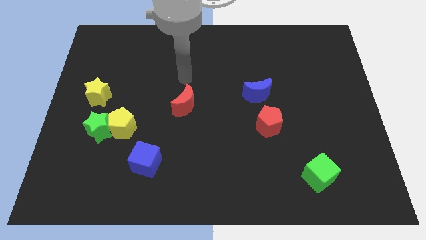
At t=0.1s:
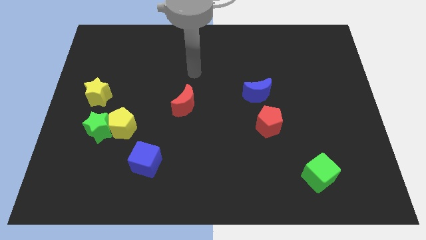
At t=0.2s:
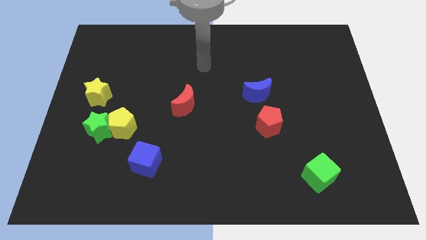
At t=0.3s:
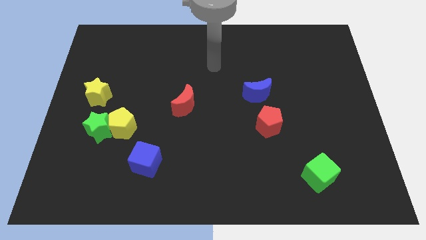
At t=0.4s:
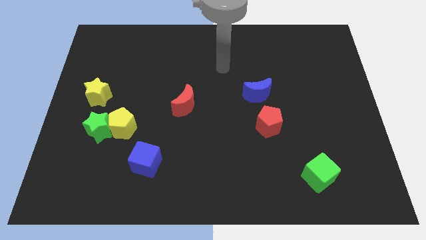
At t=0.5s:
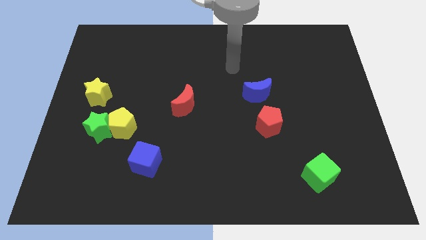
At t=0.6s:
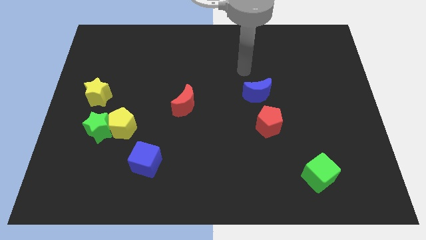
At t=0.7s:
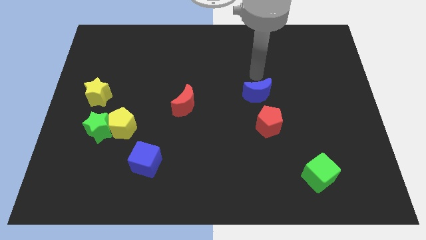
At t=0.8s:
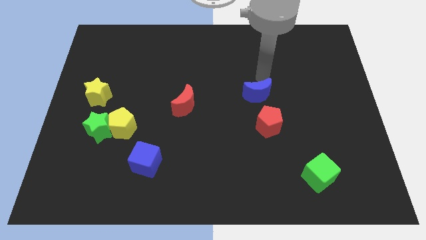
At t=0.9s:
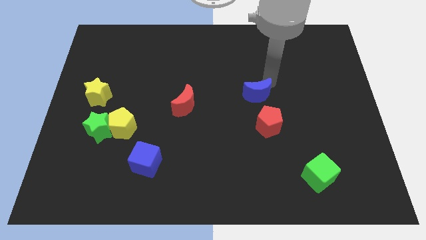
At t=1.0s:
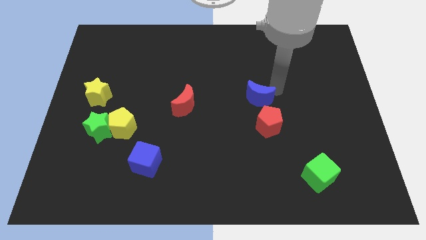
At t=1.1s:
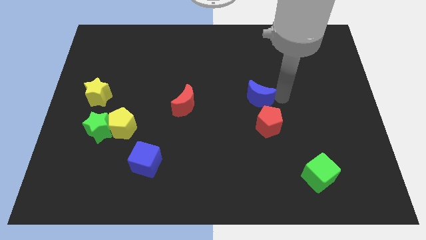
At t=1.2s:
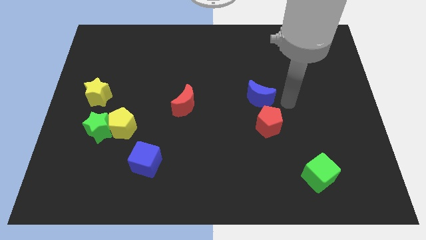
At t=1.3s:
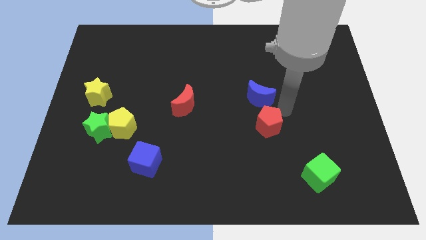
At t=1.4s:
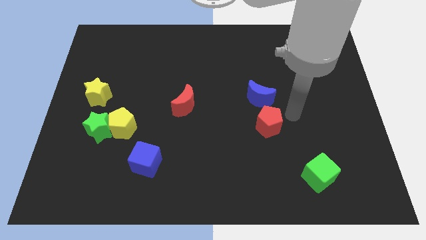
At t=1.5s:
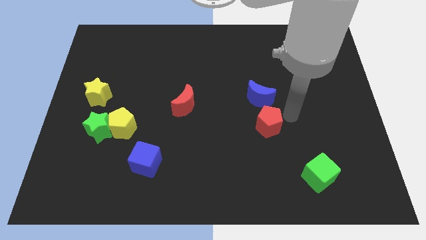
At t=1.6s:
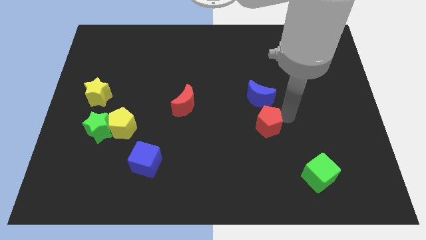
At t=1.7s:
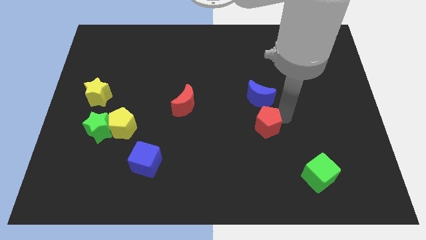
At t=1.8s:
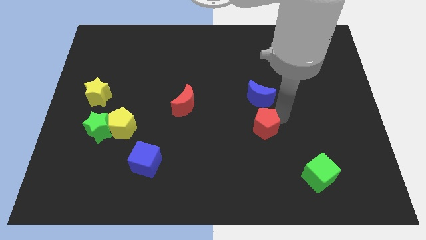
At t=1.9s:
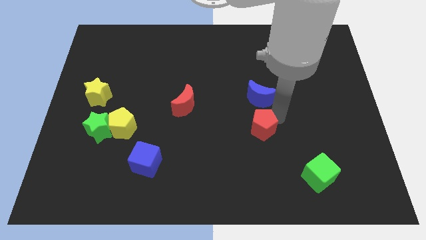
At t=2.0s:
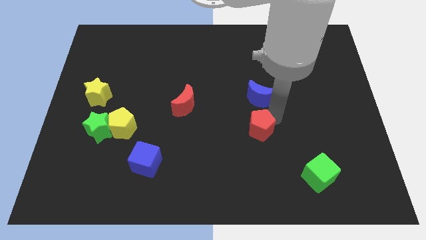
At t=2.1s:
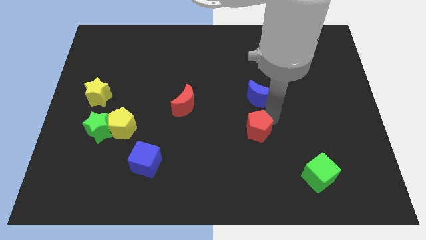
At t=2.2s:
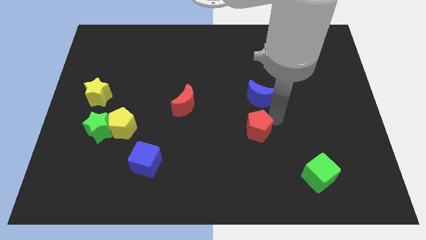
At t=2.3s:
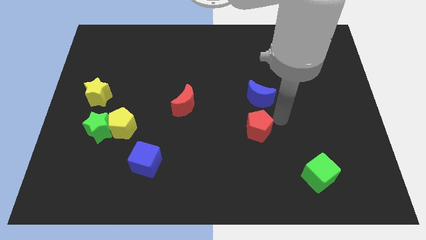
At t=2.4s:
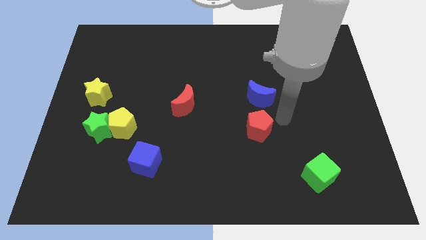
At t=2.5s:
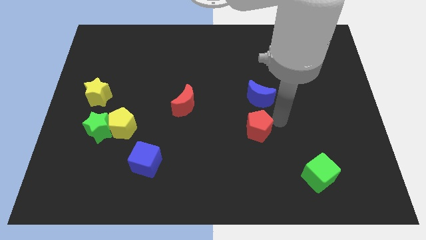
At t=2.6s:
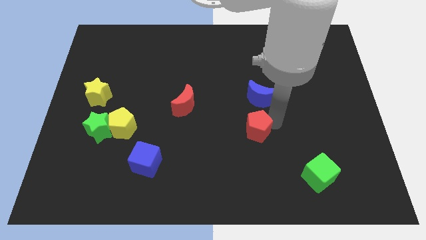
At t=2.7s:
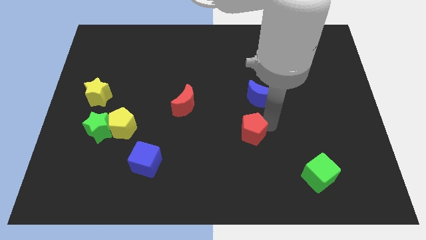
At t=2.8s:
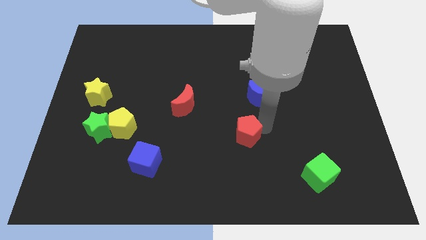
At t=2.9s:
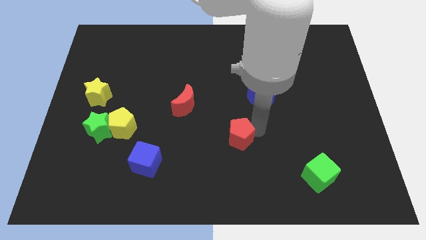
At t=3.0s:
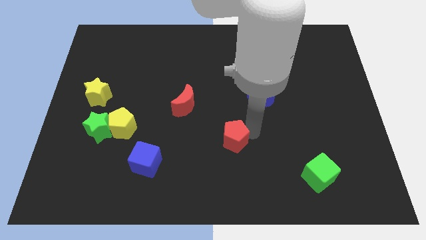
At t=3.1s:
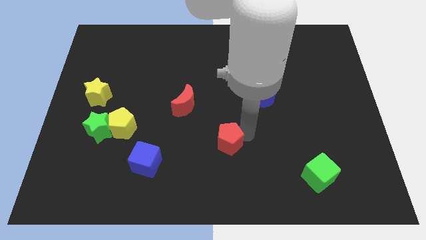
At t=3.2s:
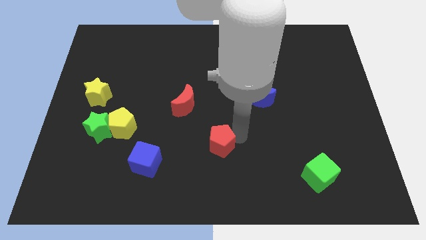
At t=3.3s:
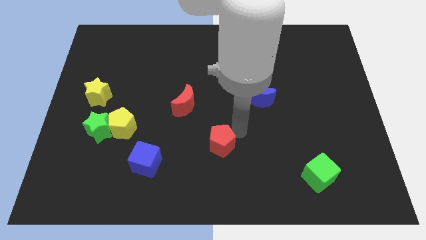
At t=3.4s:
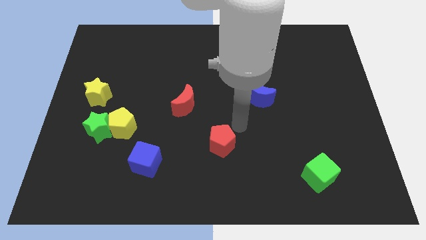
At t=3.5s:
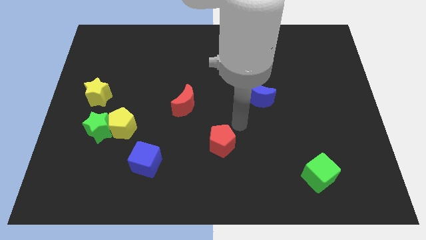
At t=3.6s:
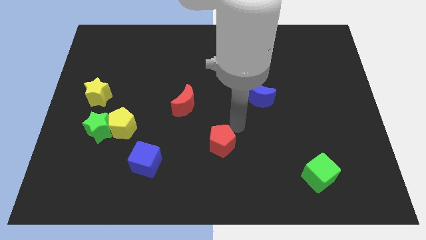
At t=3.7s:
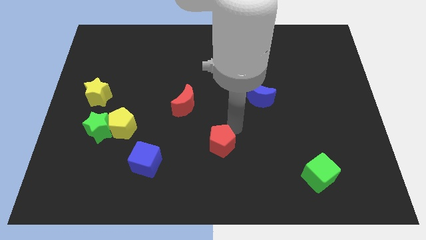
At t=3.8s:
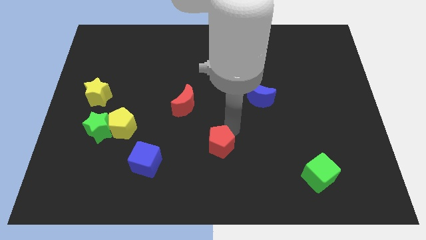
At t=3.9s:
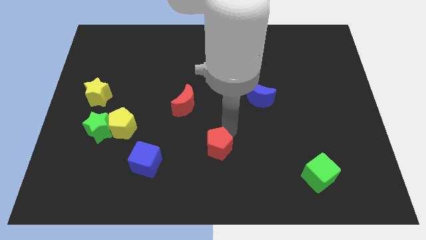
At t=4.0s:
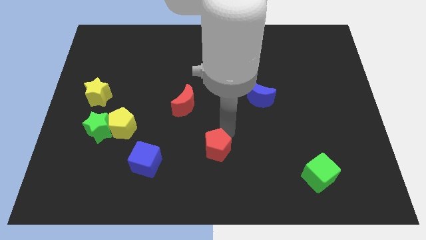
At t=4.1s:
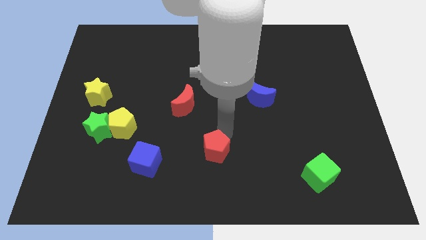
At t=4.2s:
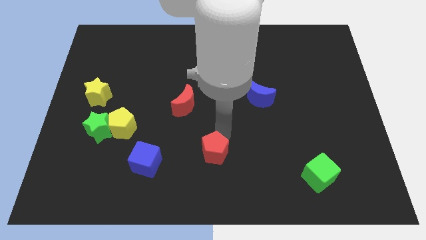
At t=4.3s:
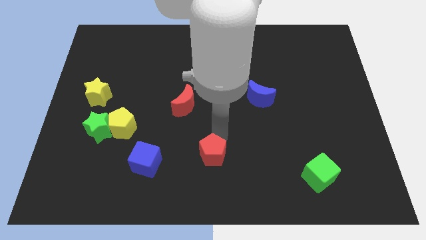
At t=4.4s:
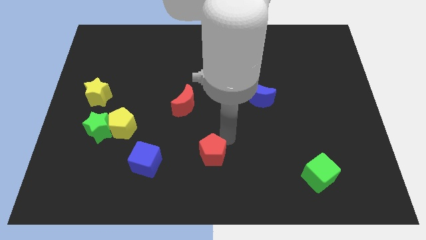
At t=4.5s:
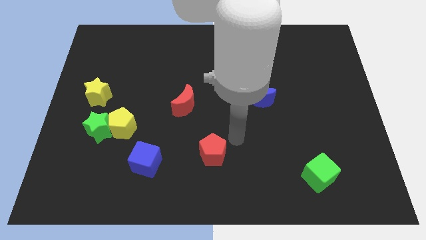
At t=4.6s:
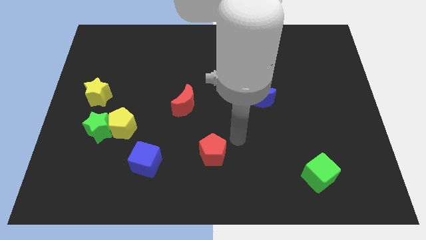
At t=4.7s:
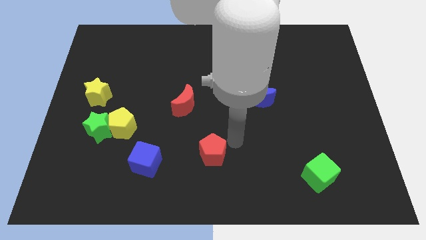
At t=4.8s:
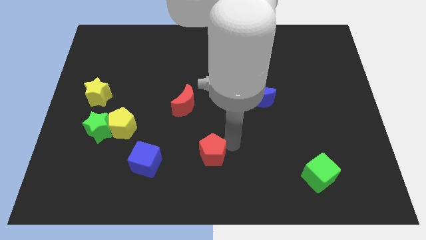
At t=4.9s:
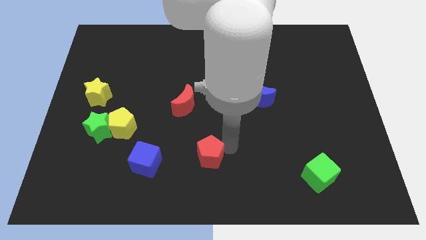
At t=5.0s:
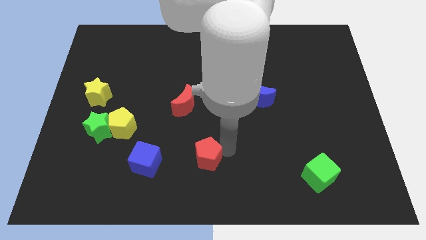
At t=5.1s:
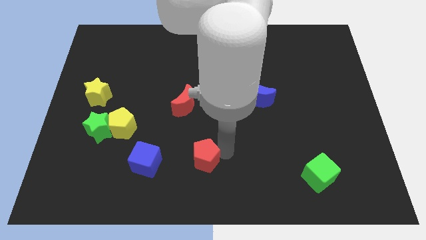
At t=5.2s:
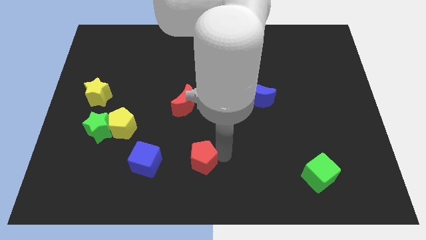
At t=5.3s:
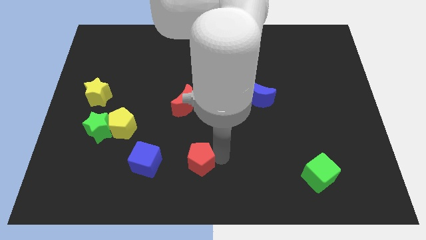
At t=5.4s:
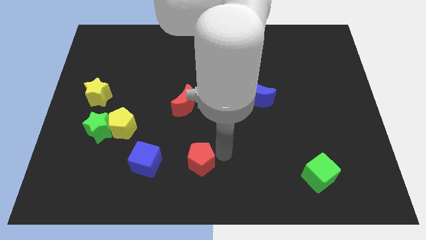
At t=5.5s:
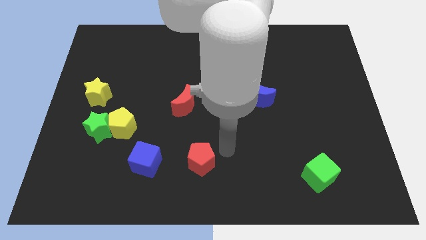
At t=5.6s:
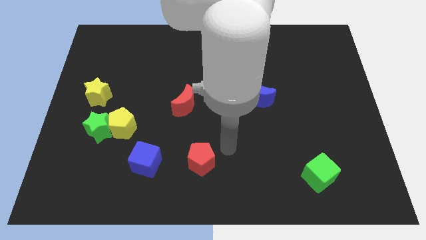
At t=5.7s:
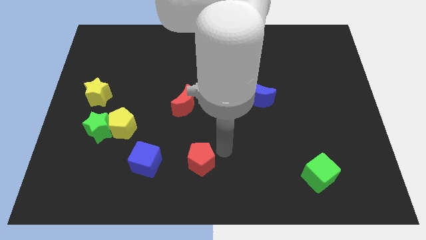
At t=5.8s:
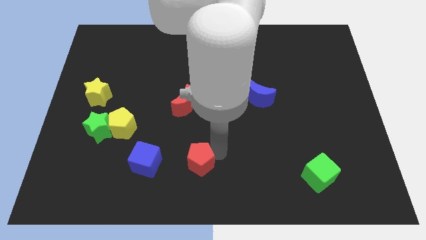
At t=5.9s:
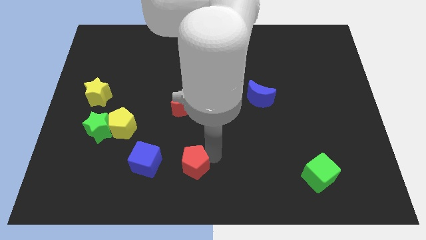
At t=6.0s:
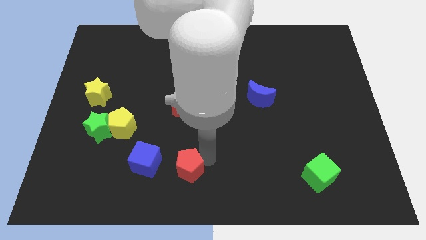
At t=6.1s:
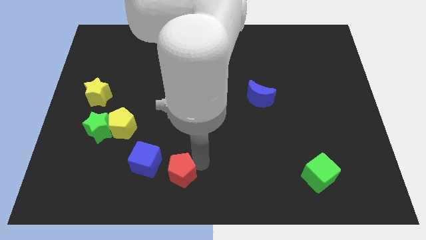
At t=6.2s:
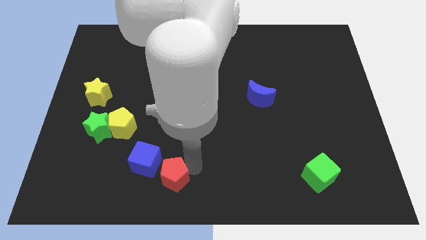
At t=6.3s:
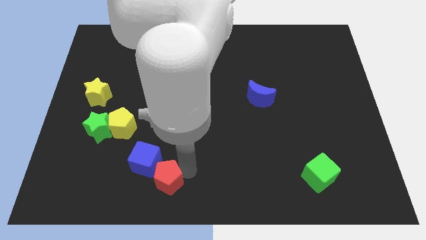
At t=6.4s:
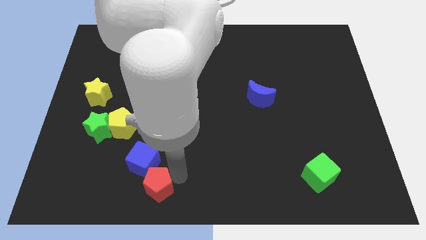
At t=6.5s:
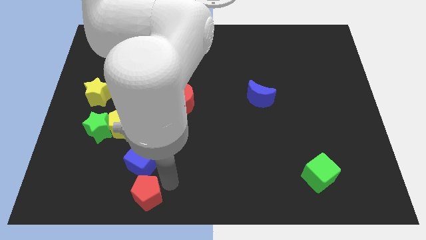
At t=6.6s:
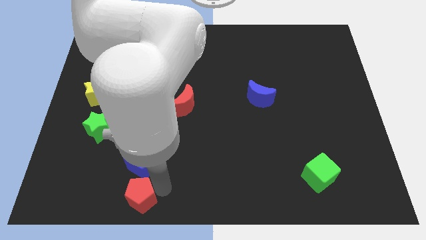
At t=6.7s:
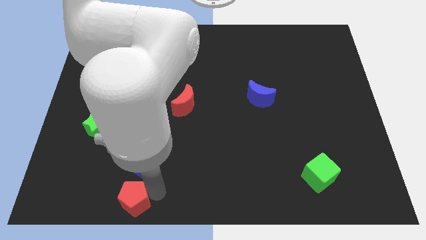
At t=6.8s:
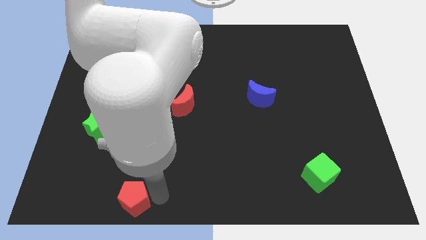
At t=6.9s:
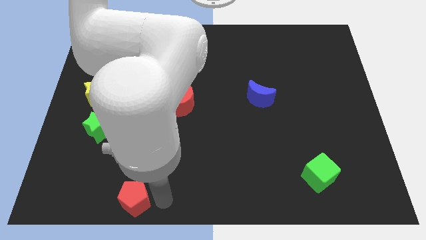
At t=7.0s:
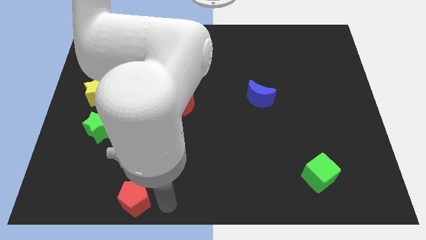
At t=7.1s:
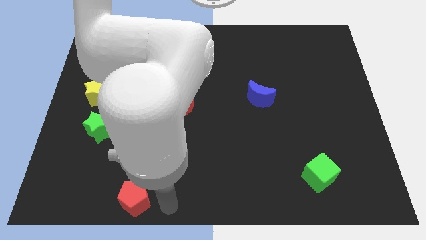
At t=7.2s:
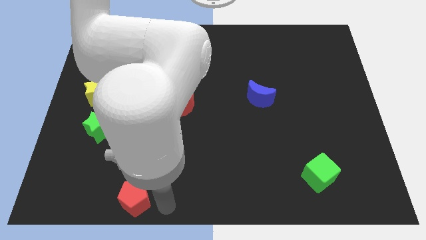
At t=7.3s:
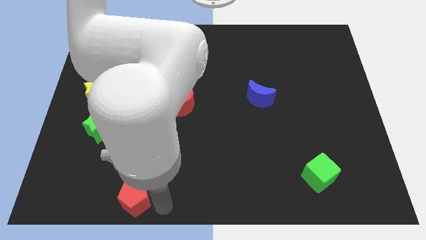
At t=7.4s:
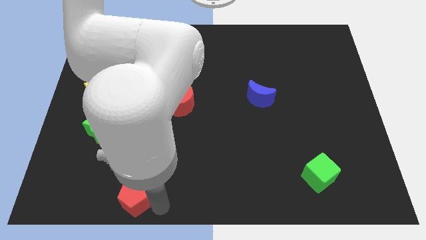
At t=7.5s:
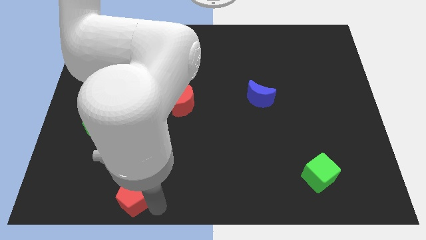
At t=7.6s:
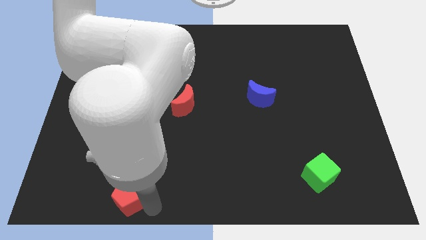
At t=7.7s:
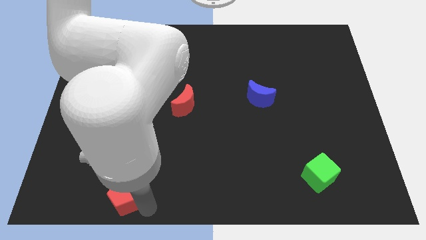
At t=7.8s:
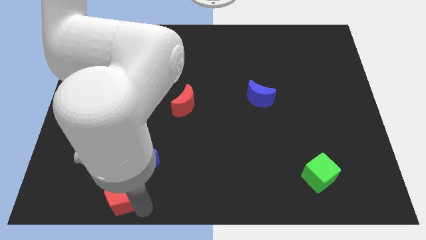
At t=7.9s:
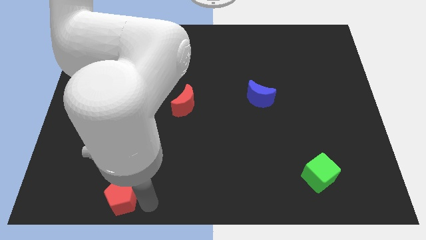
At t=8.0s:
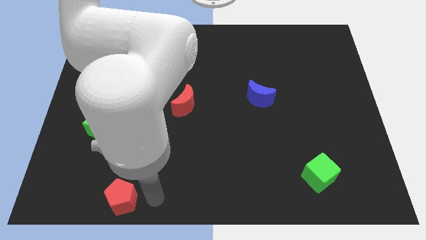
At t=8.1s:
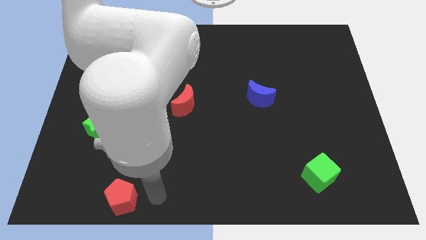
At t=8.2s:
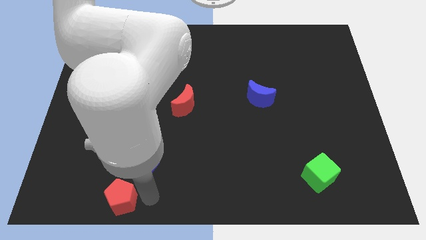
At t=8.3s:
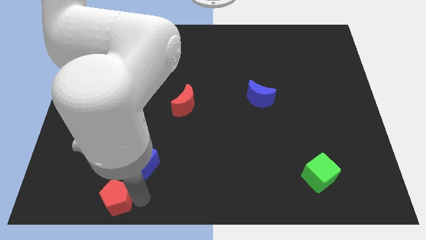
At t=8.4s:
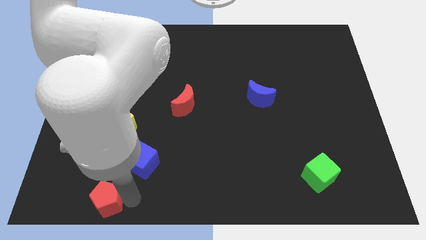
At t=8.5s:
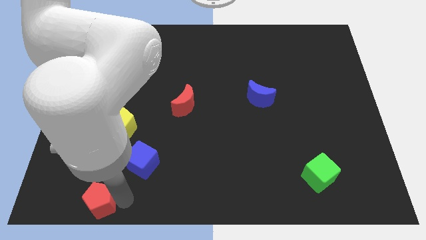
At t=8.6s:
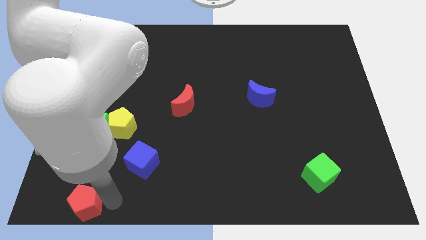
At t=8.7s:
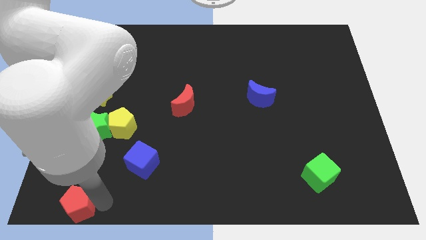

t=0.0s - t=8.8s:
move the red pentagon to the bottom left
